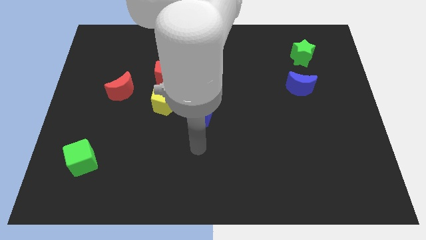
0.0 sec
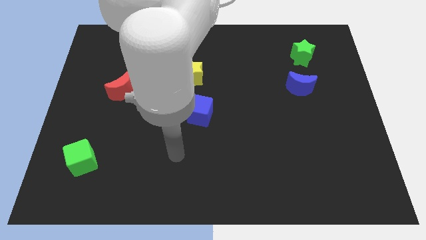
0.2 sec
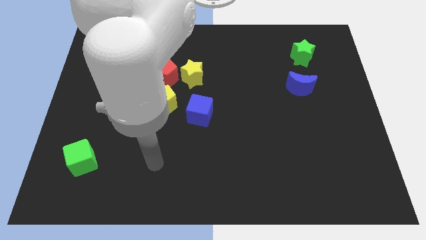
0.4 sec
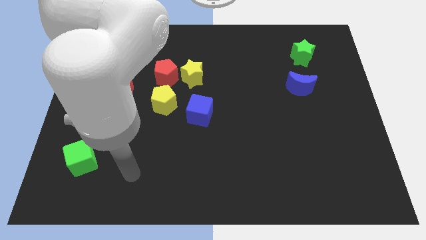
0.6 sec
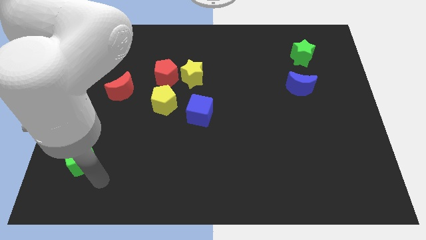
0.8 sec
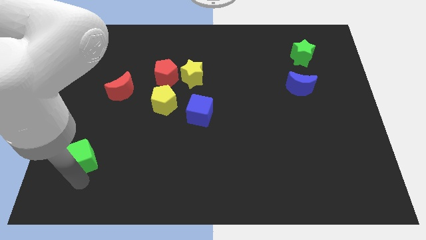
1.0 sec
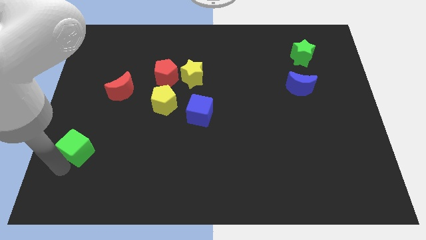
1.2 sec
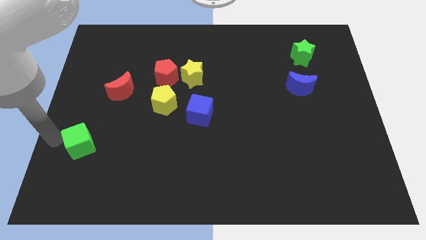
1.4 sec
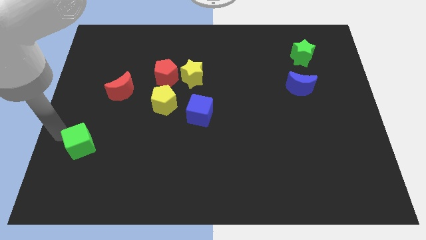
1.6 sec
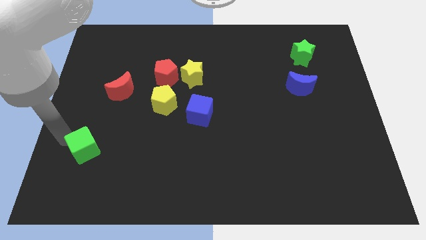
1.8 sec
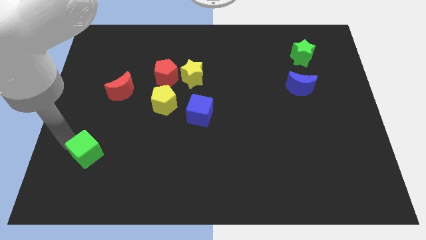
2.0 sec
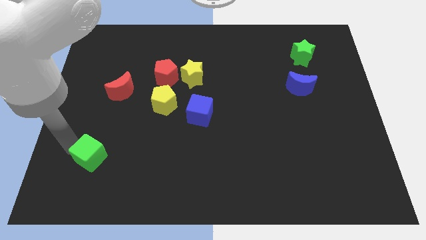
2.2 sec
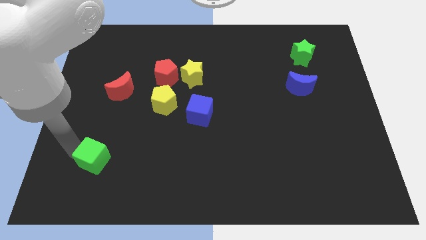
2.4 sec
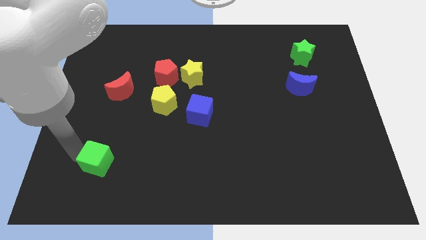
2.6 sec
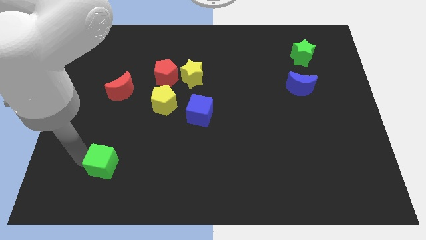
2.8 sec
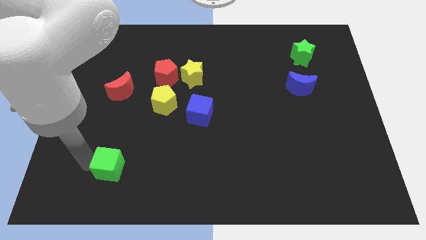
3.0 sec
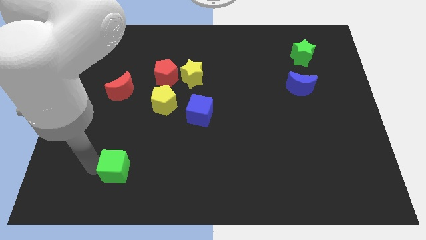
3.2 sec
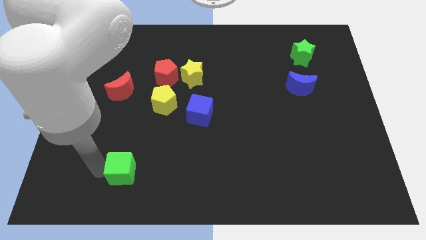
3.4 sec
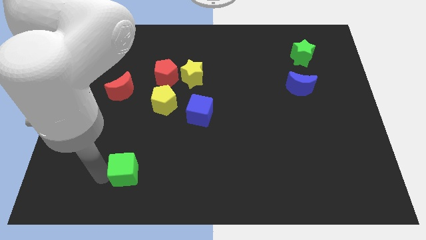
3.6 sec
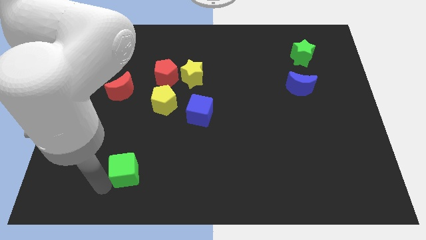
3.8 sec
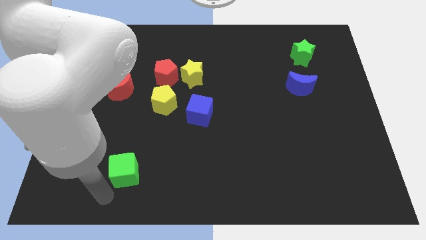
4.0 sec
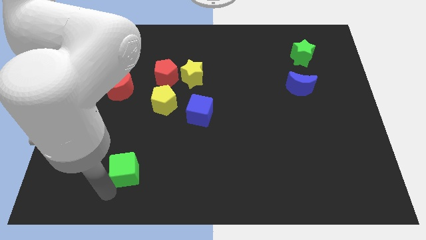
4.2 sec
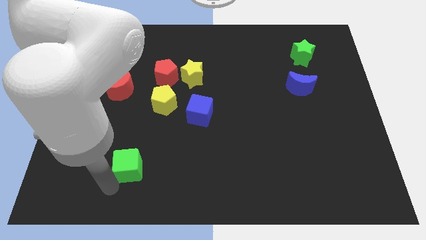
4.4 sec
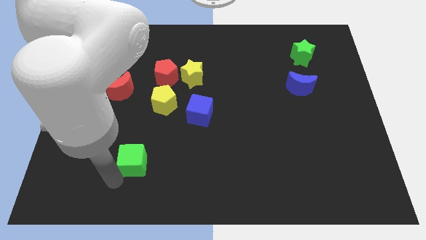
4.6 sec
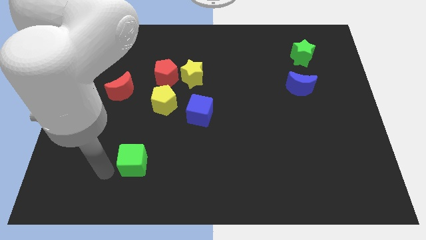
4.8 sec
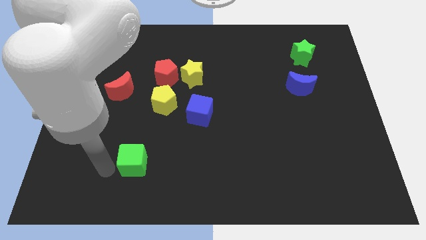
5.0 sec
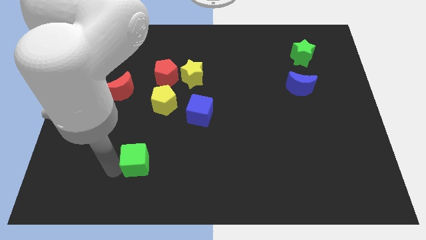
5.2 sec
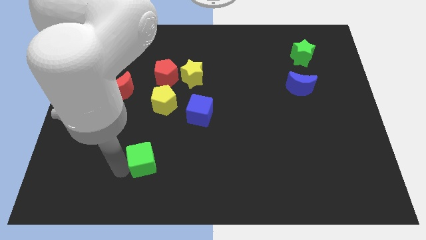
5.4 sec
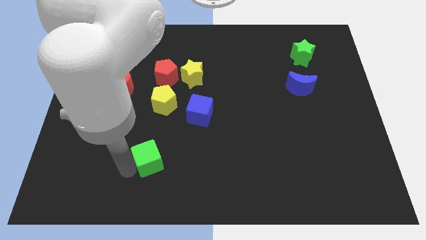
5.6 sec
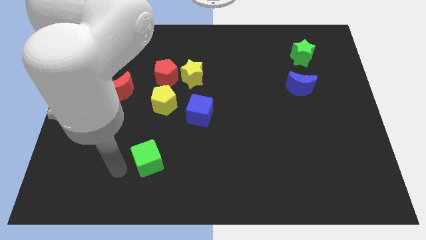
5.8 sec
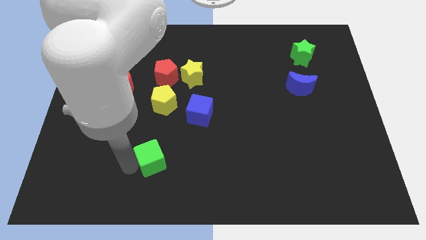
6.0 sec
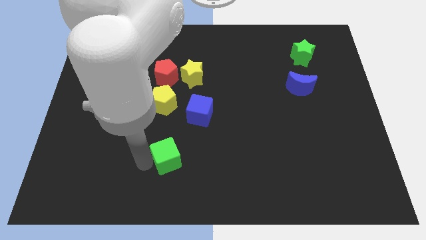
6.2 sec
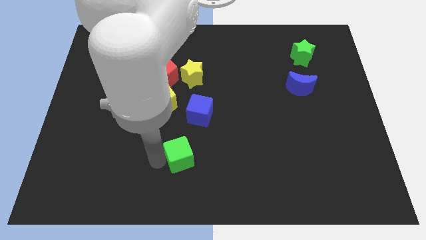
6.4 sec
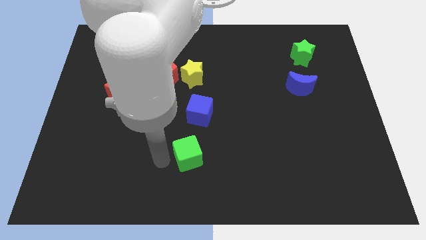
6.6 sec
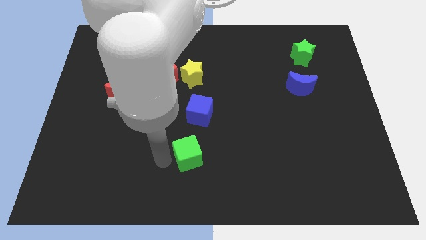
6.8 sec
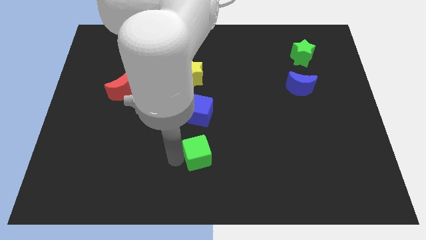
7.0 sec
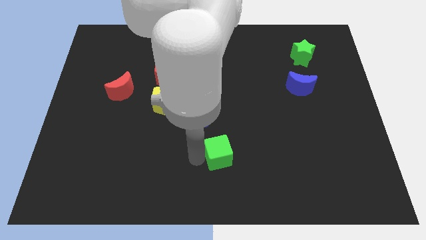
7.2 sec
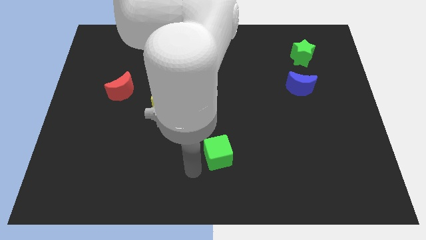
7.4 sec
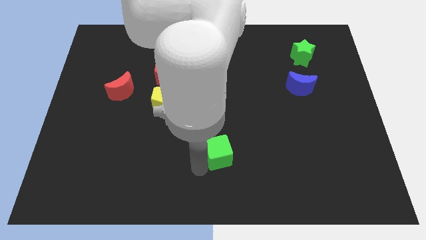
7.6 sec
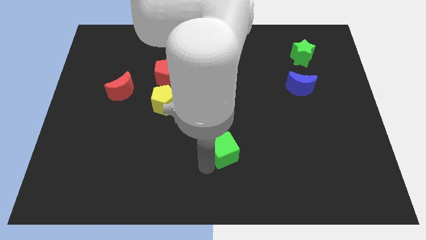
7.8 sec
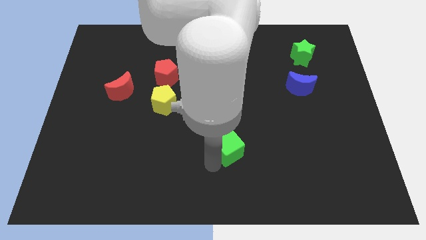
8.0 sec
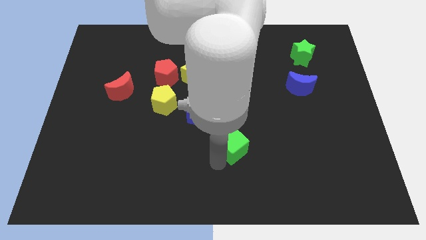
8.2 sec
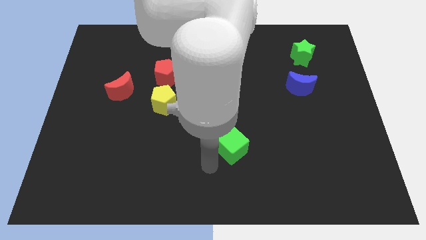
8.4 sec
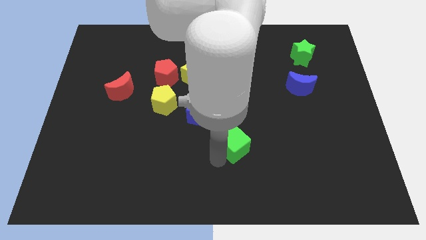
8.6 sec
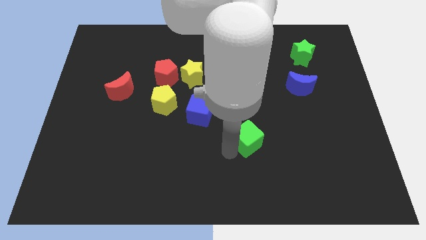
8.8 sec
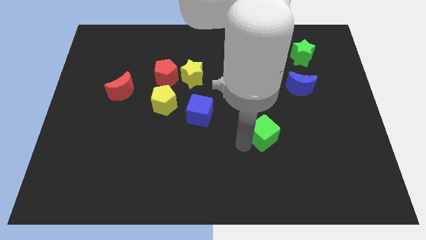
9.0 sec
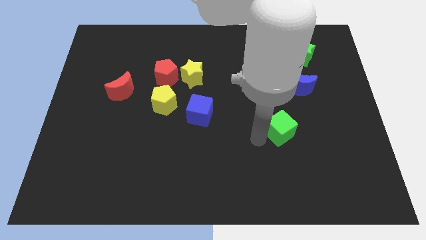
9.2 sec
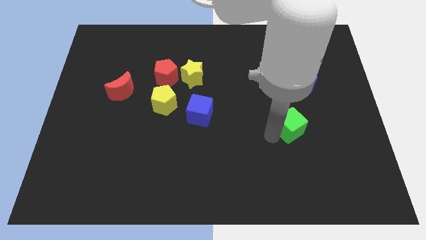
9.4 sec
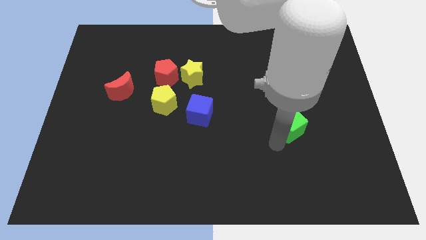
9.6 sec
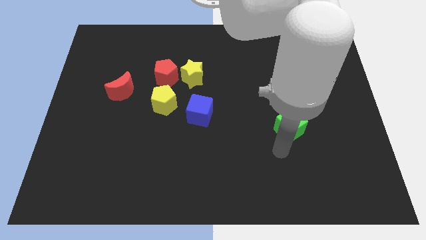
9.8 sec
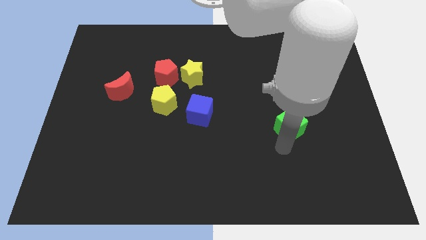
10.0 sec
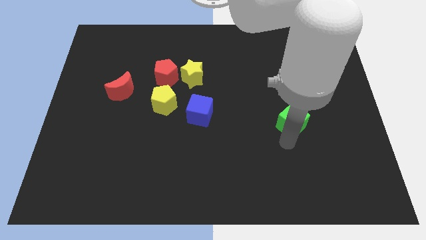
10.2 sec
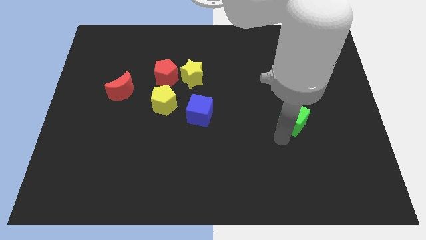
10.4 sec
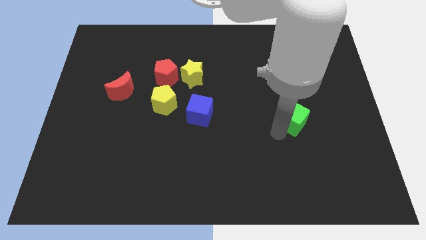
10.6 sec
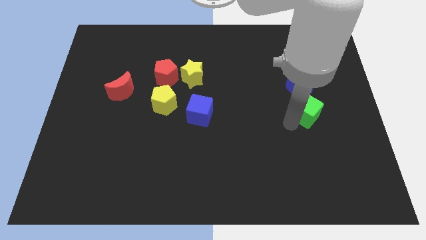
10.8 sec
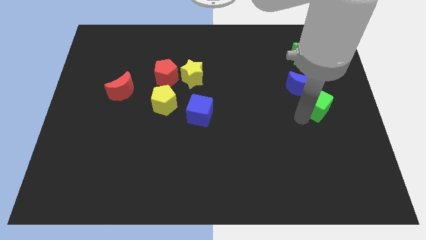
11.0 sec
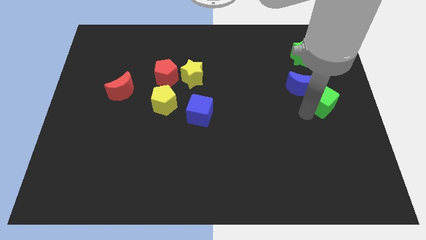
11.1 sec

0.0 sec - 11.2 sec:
move the green cube to the right side of the board

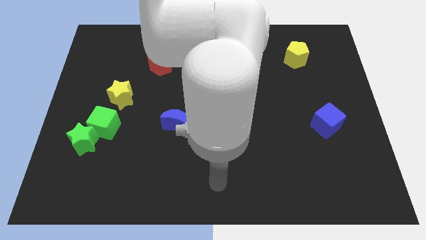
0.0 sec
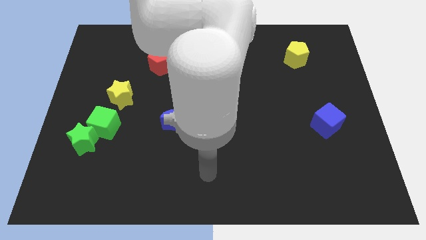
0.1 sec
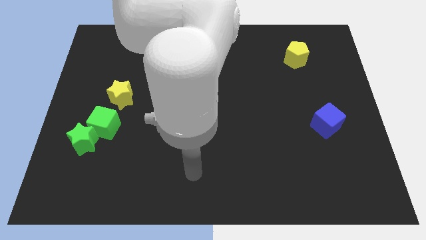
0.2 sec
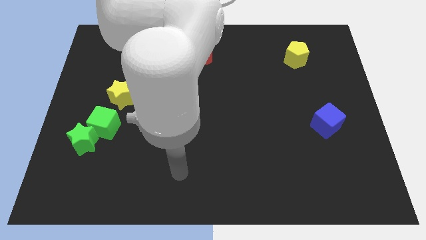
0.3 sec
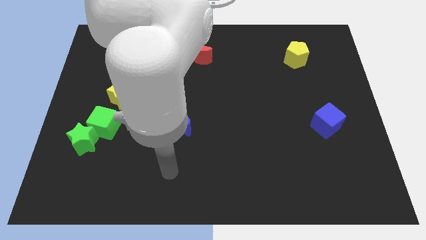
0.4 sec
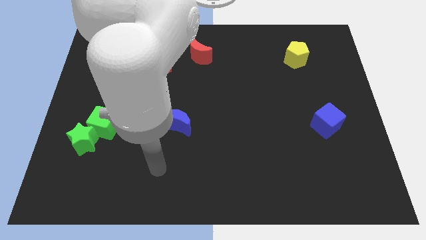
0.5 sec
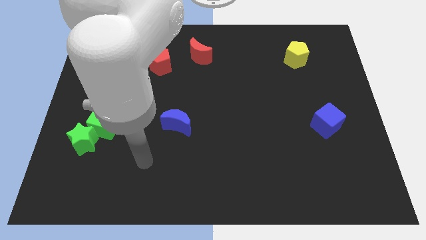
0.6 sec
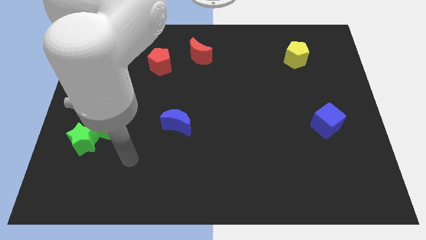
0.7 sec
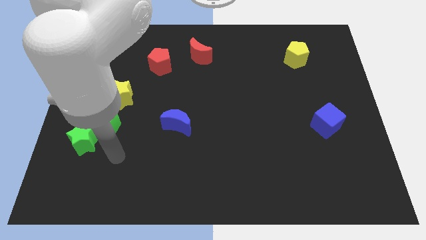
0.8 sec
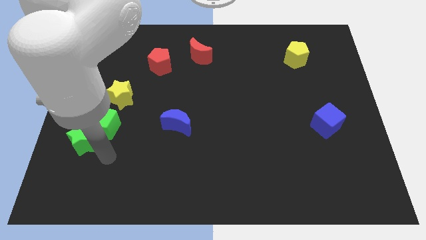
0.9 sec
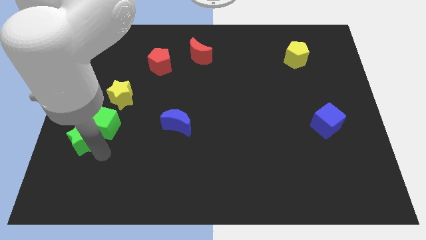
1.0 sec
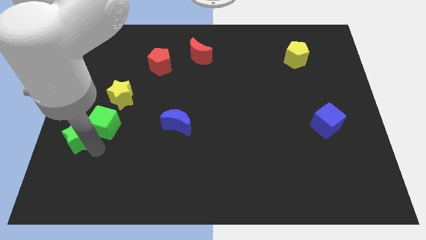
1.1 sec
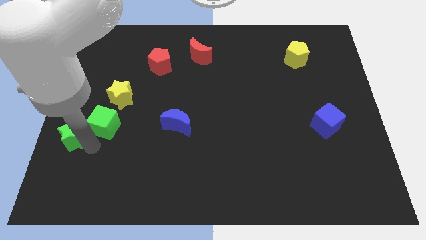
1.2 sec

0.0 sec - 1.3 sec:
move the green star to the left side of the board
